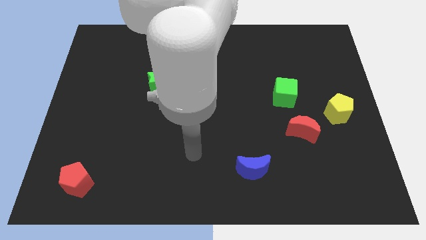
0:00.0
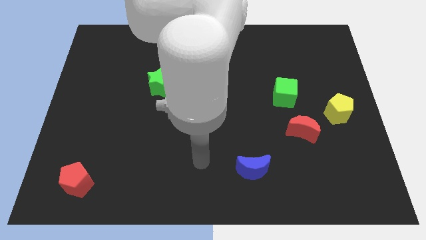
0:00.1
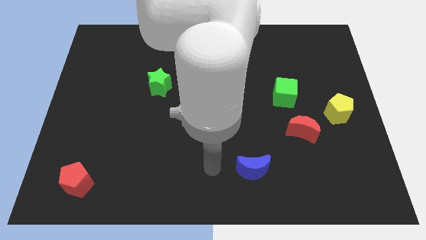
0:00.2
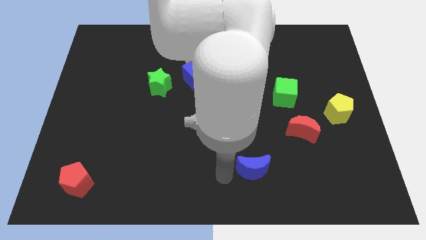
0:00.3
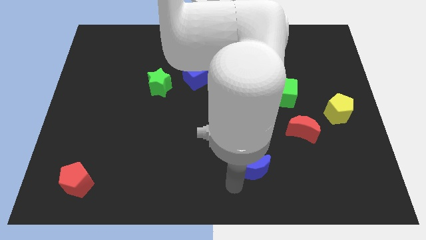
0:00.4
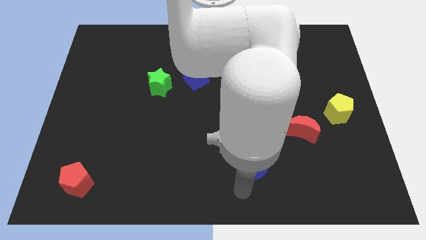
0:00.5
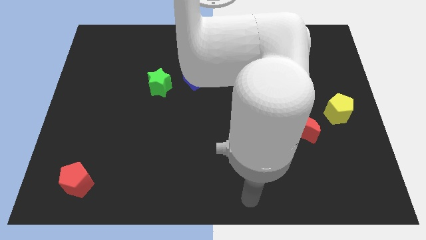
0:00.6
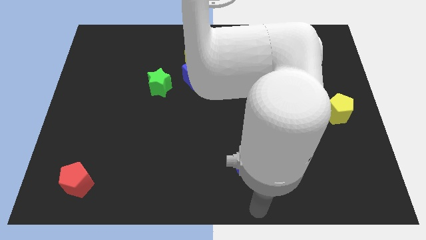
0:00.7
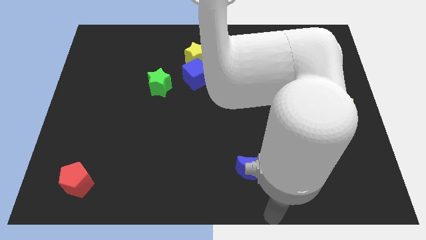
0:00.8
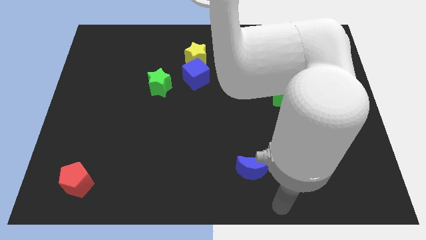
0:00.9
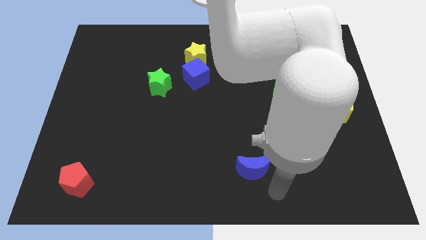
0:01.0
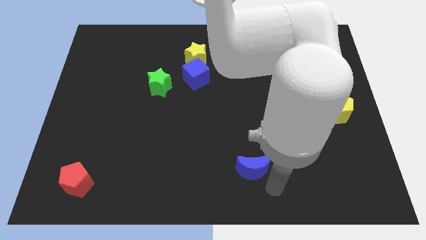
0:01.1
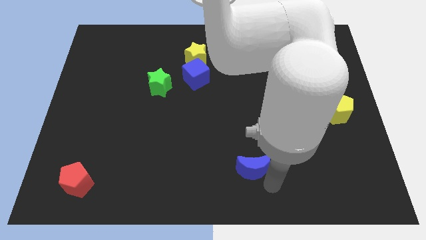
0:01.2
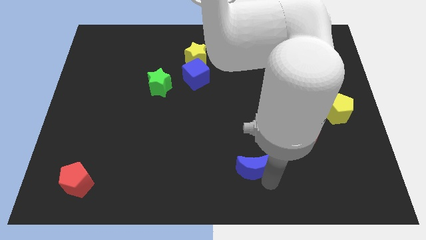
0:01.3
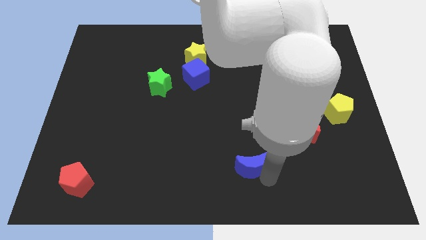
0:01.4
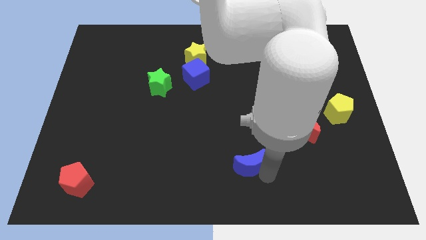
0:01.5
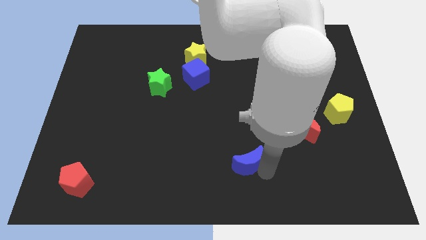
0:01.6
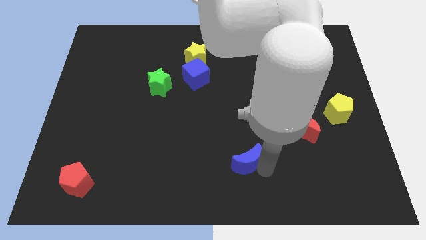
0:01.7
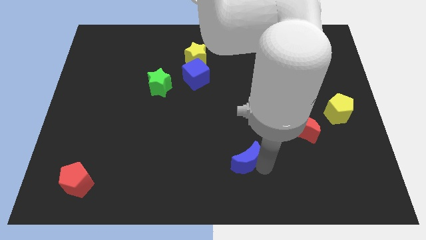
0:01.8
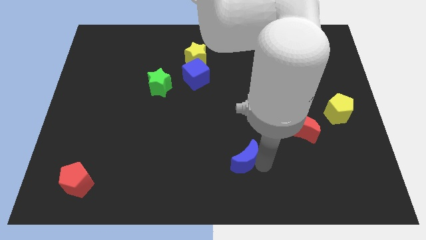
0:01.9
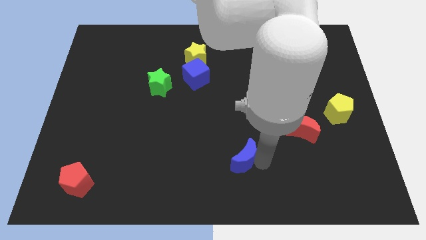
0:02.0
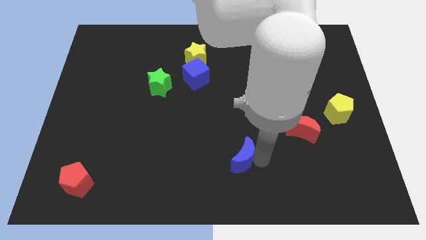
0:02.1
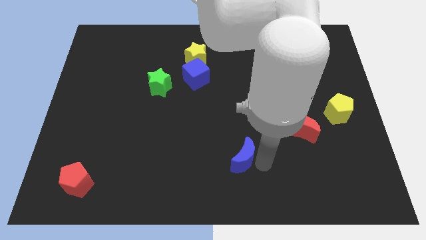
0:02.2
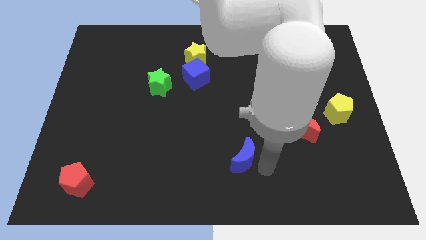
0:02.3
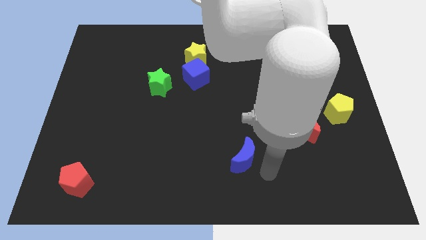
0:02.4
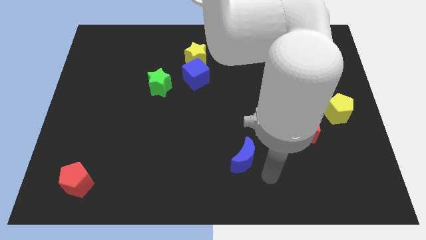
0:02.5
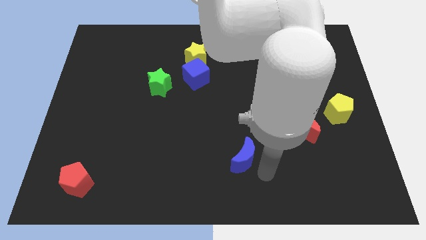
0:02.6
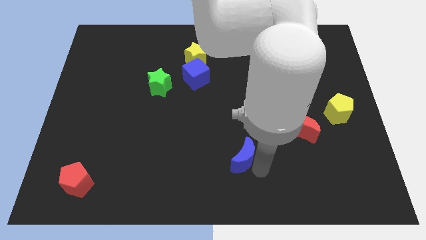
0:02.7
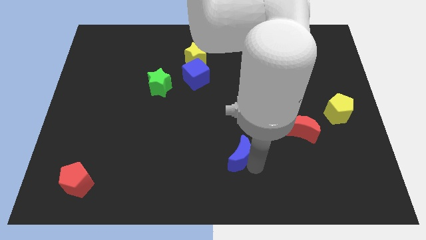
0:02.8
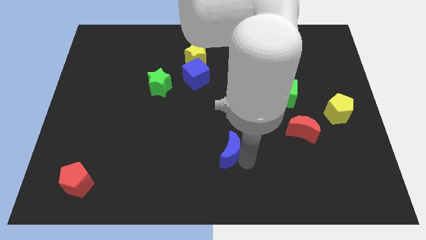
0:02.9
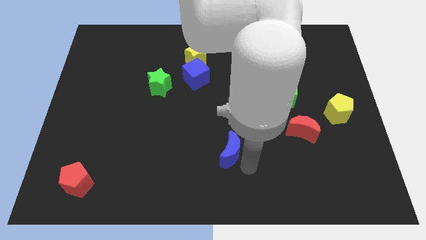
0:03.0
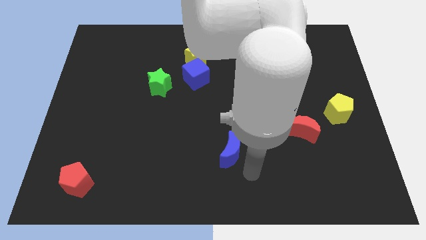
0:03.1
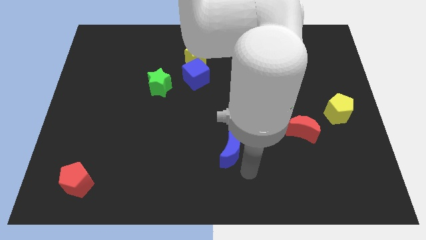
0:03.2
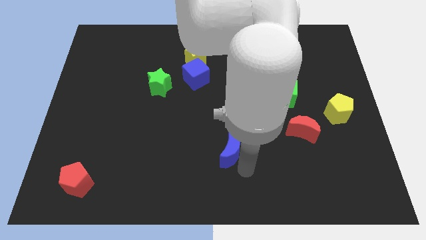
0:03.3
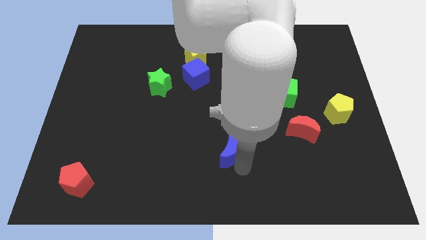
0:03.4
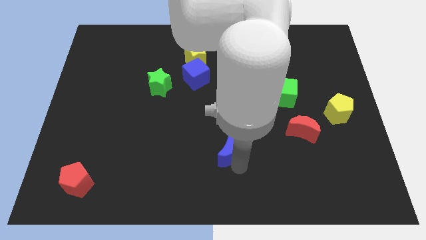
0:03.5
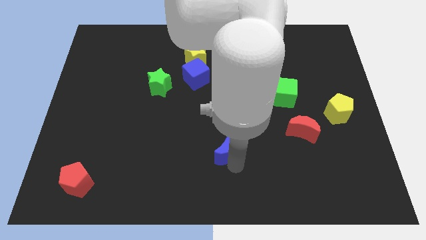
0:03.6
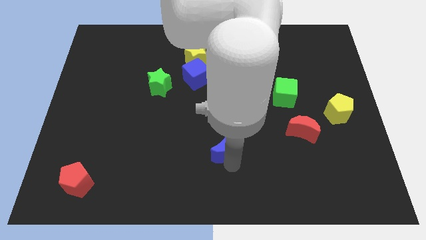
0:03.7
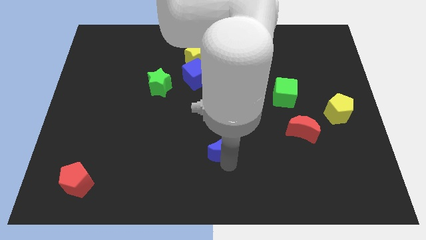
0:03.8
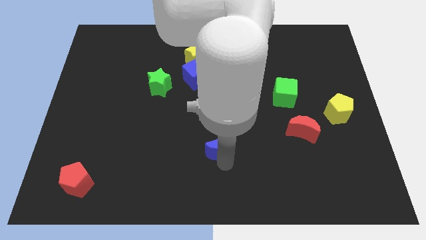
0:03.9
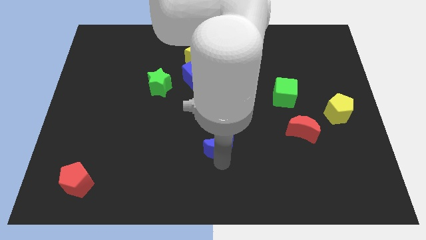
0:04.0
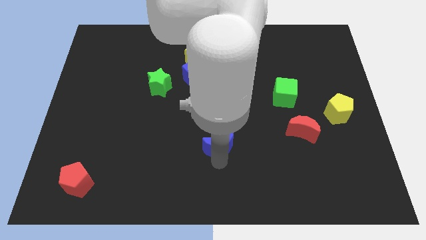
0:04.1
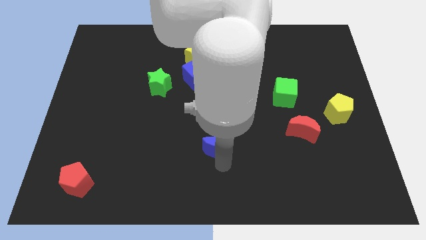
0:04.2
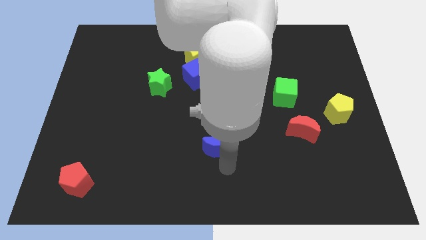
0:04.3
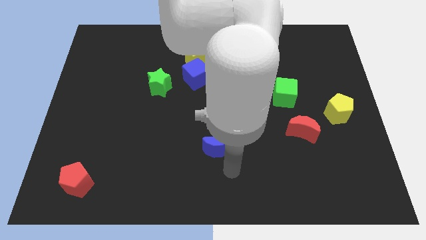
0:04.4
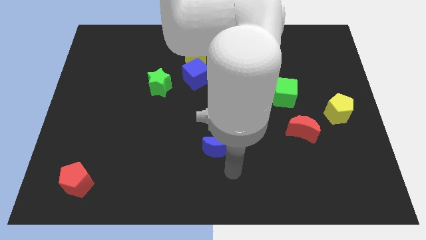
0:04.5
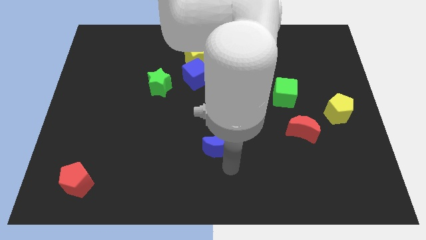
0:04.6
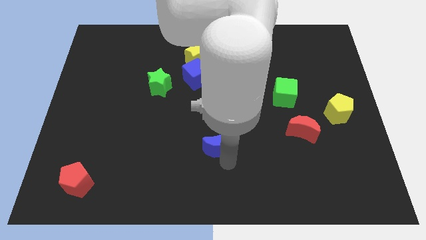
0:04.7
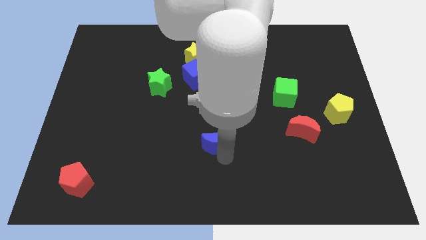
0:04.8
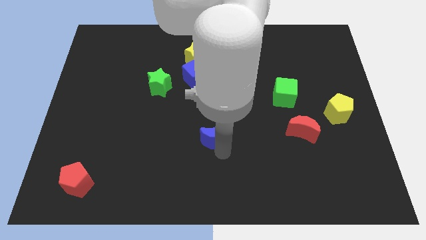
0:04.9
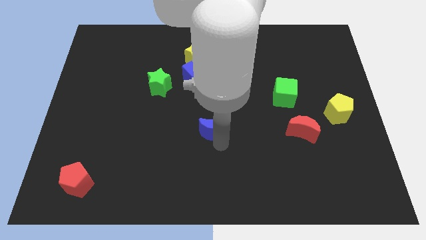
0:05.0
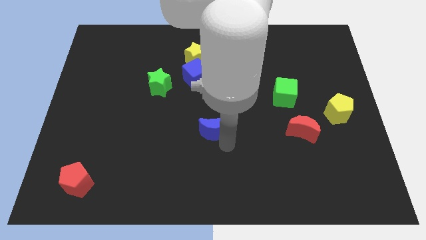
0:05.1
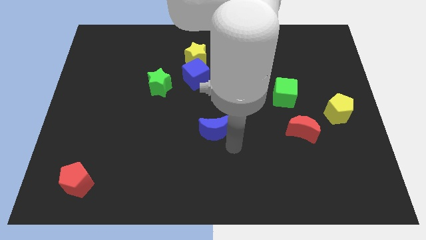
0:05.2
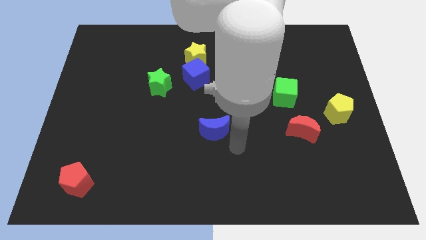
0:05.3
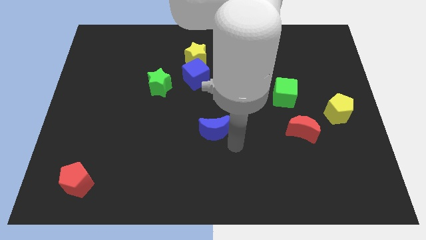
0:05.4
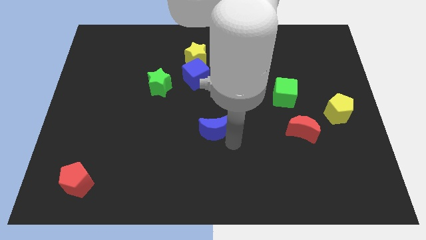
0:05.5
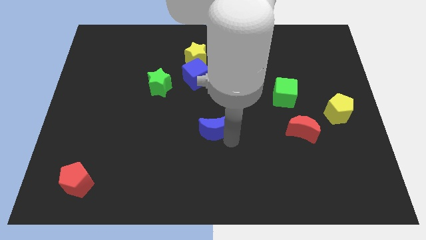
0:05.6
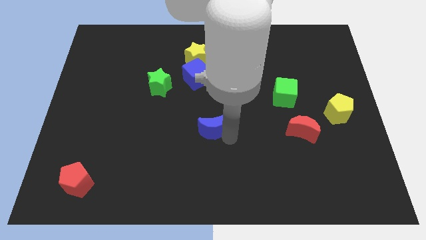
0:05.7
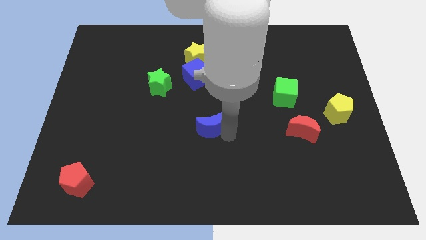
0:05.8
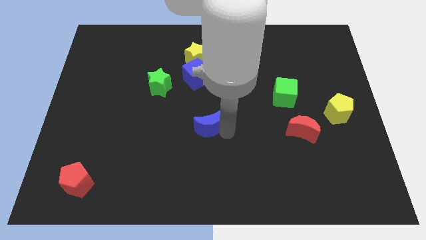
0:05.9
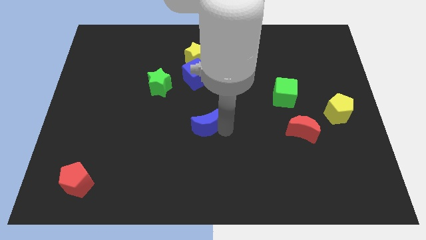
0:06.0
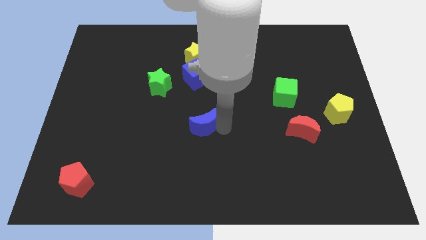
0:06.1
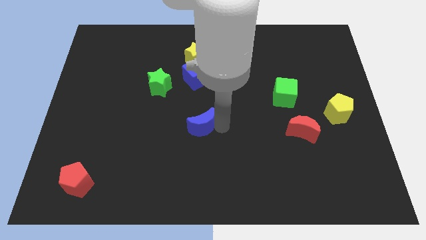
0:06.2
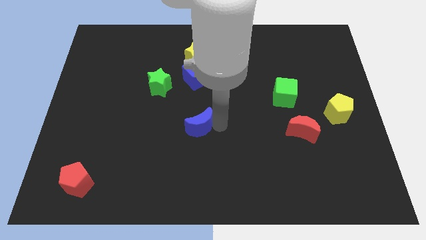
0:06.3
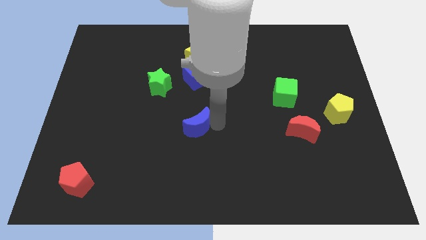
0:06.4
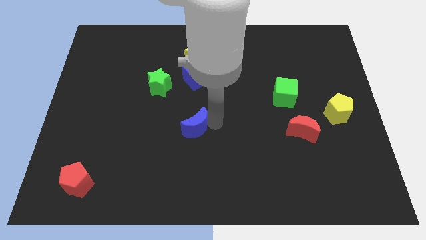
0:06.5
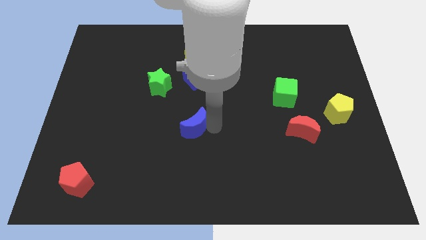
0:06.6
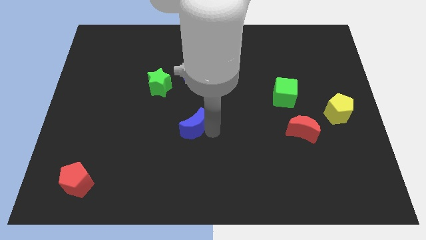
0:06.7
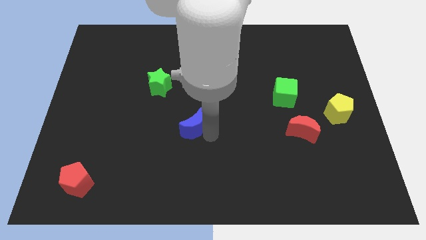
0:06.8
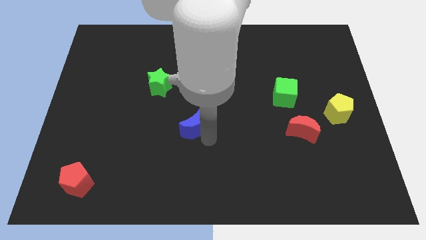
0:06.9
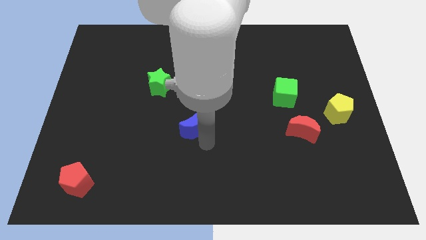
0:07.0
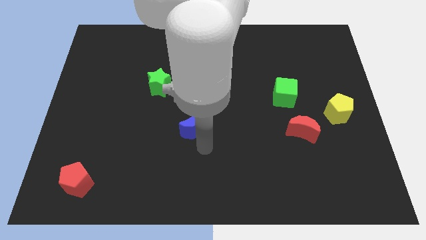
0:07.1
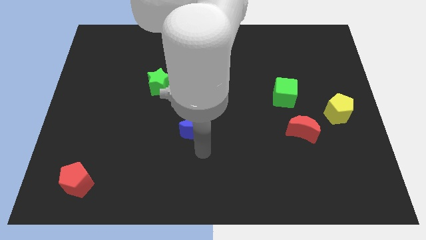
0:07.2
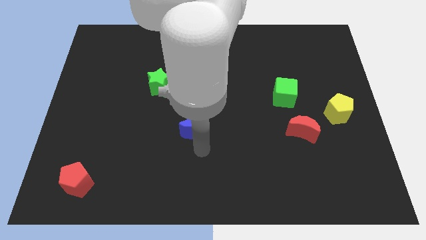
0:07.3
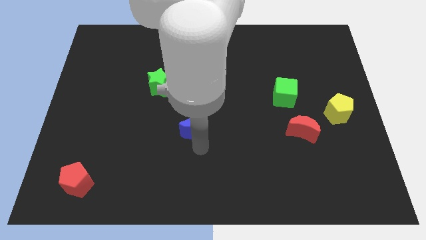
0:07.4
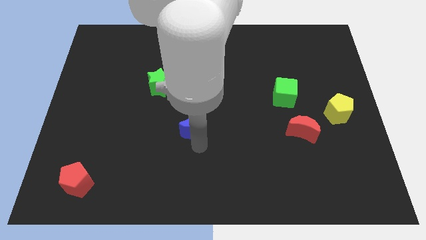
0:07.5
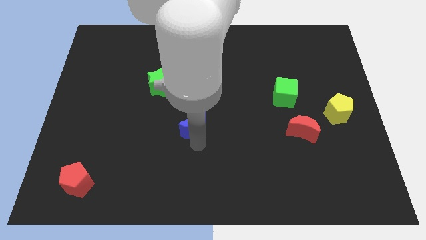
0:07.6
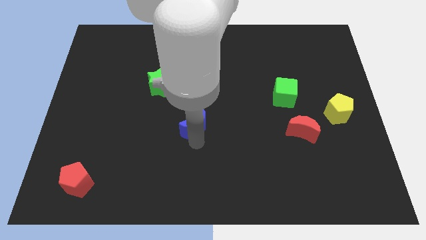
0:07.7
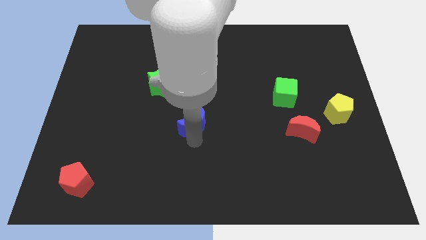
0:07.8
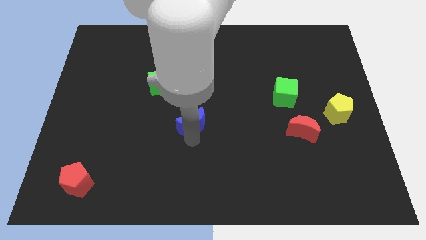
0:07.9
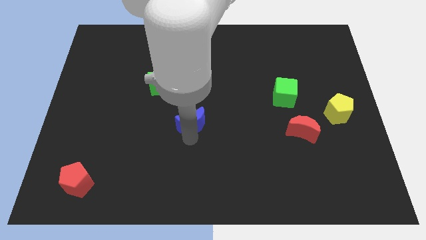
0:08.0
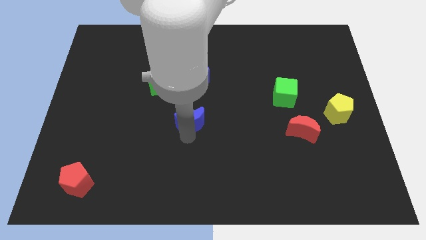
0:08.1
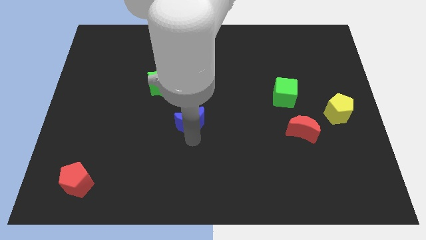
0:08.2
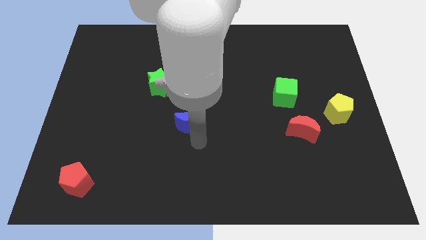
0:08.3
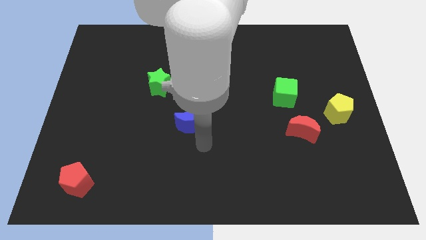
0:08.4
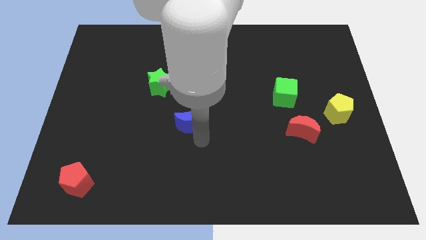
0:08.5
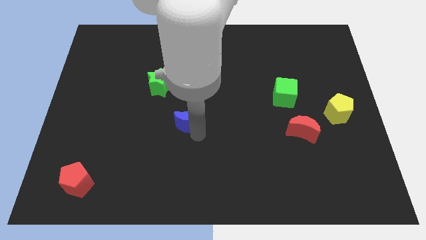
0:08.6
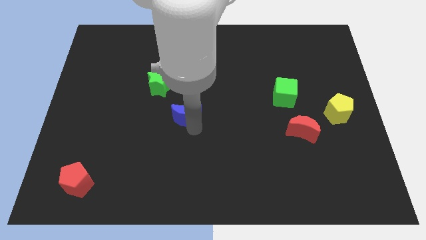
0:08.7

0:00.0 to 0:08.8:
push the blue moon to the bottom right side of the green star
